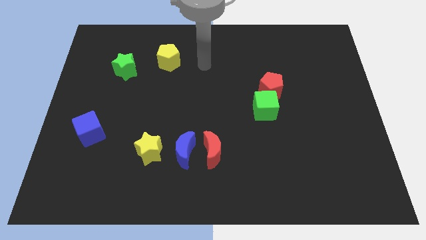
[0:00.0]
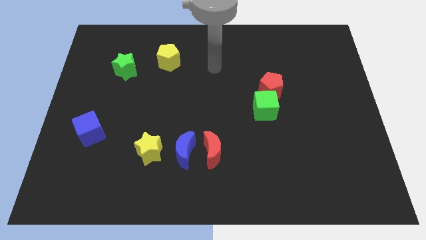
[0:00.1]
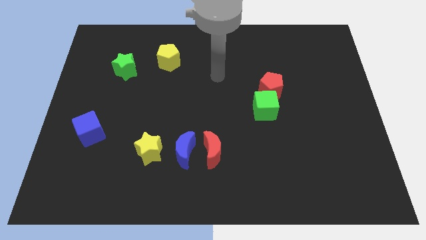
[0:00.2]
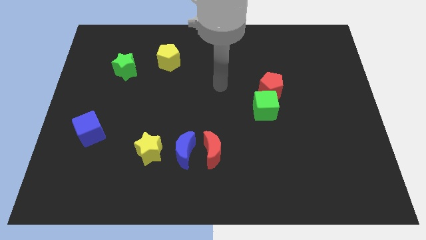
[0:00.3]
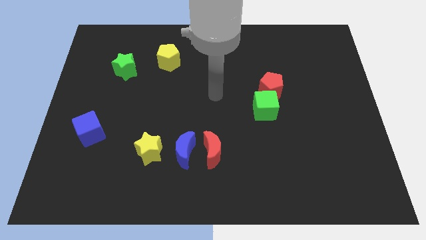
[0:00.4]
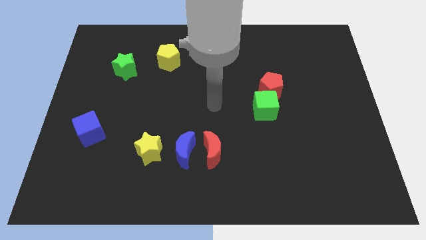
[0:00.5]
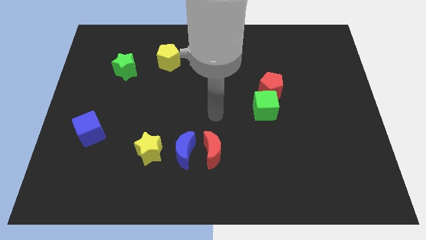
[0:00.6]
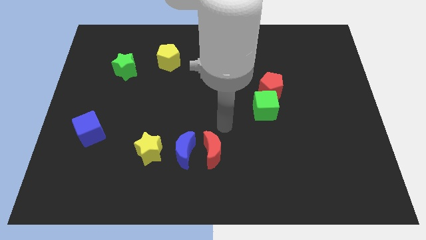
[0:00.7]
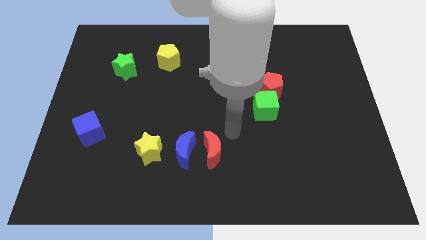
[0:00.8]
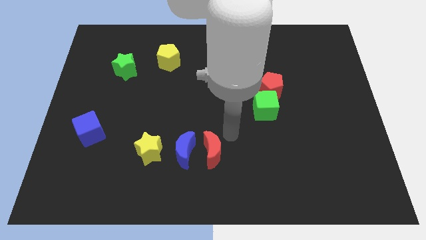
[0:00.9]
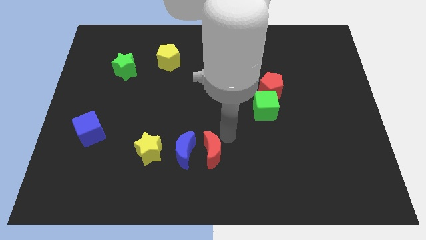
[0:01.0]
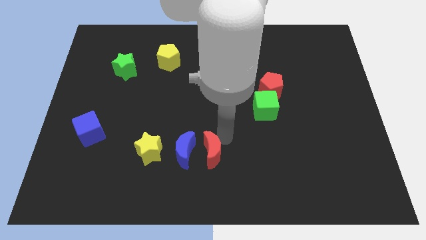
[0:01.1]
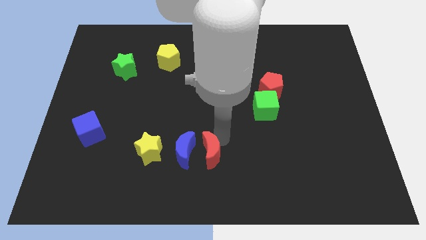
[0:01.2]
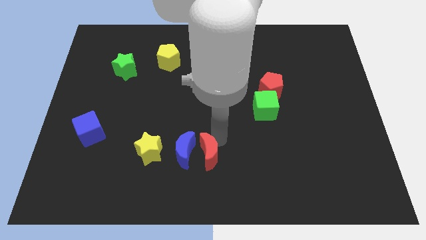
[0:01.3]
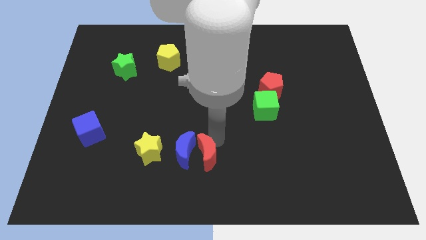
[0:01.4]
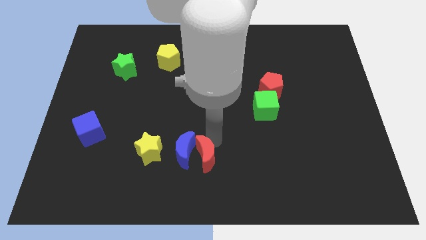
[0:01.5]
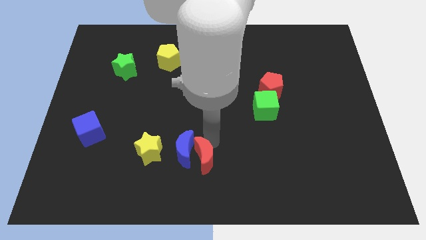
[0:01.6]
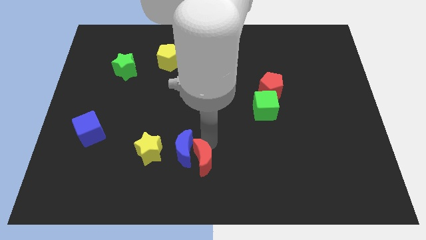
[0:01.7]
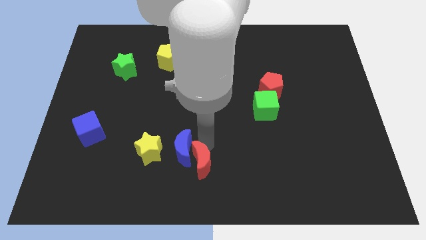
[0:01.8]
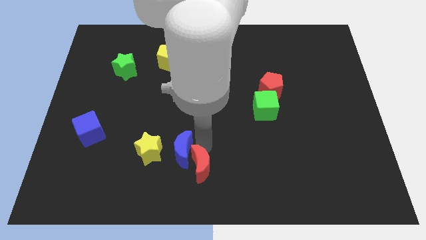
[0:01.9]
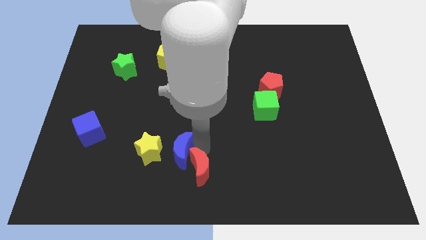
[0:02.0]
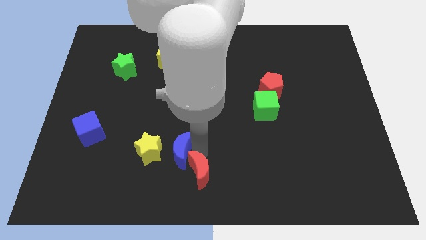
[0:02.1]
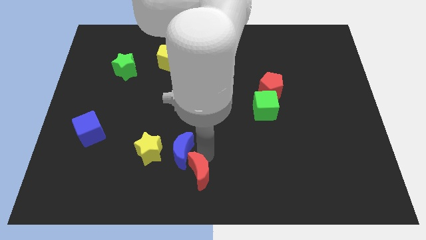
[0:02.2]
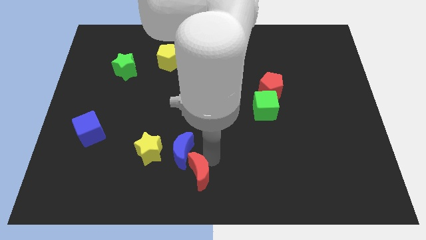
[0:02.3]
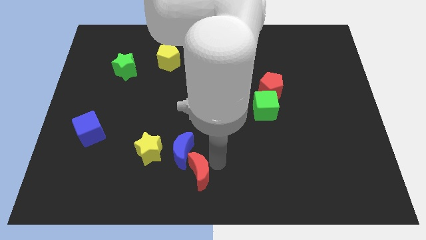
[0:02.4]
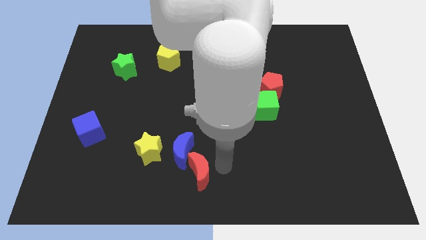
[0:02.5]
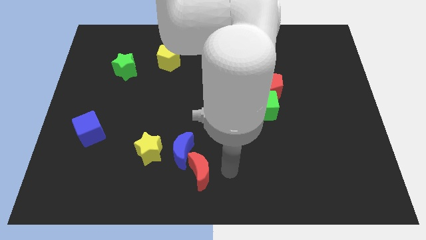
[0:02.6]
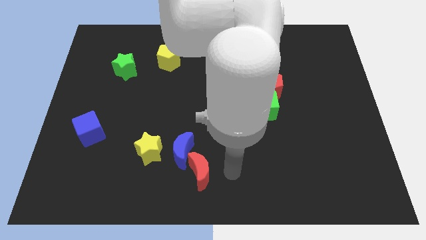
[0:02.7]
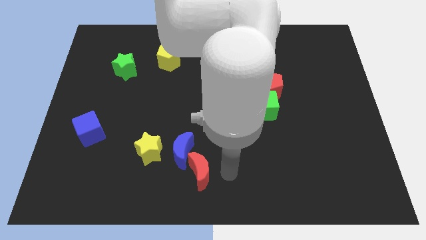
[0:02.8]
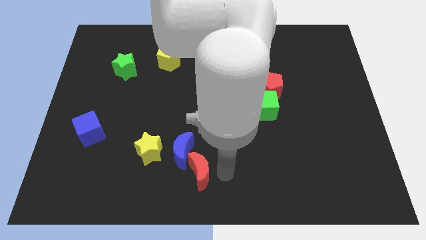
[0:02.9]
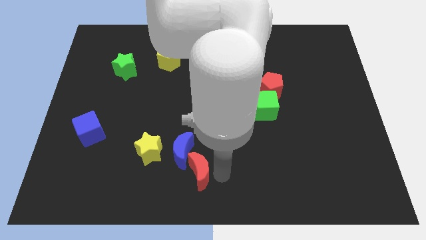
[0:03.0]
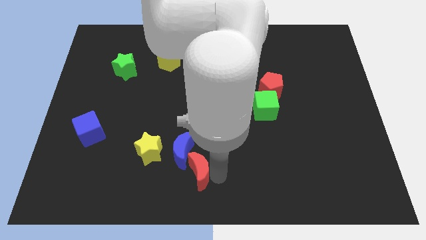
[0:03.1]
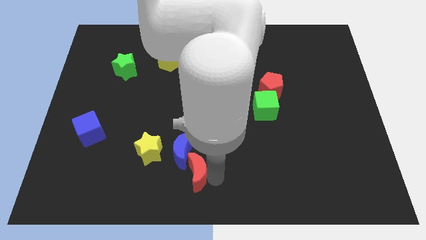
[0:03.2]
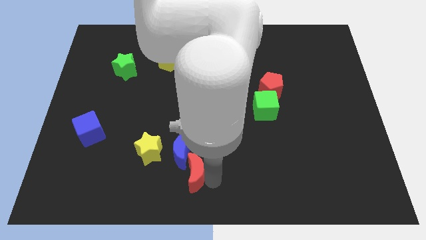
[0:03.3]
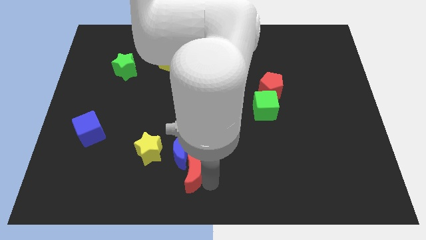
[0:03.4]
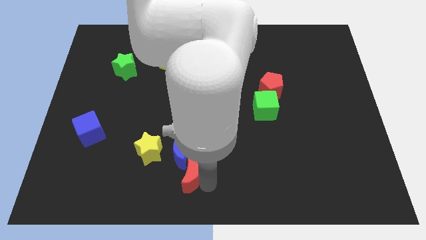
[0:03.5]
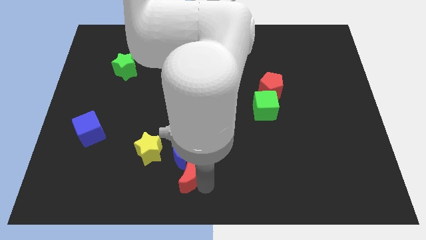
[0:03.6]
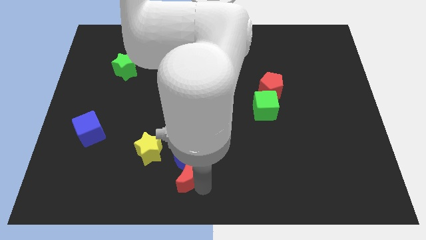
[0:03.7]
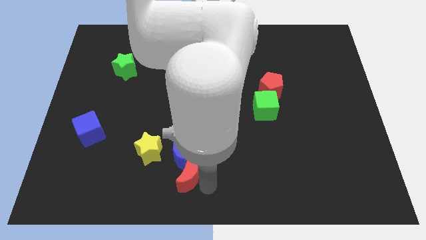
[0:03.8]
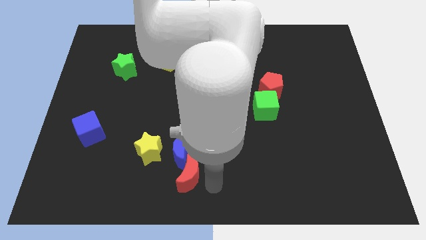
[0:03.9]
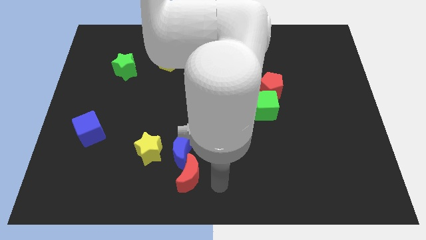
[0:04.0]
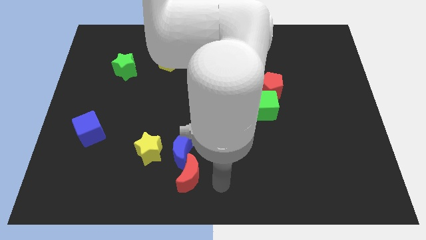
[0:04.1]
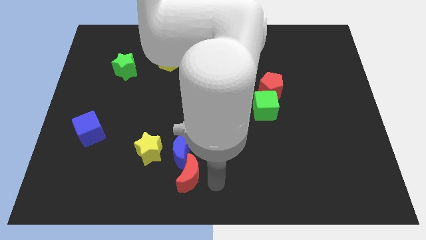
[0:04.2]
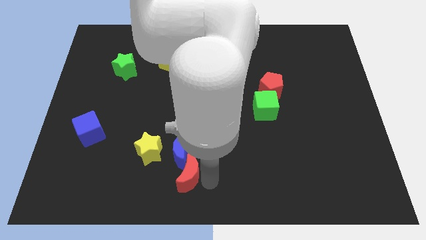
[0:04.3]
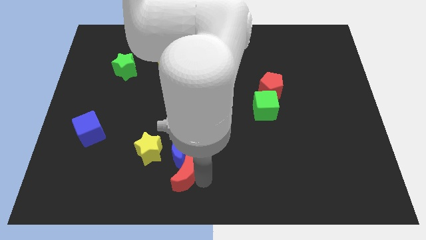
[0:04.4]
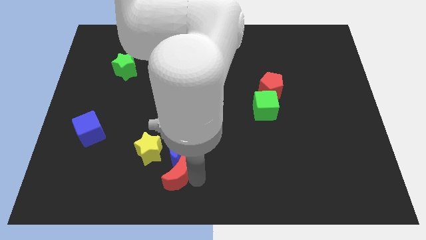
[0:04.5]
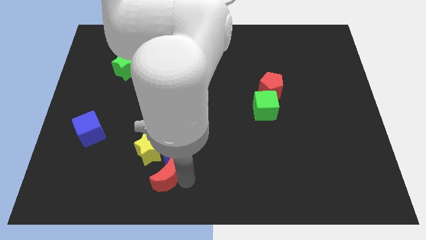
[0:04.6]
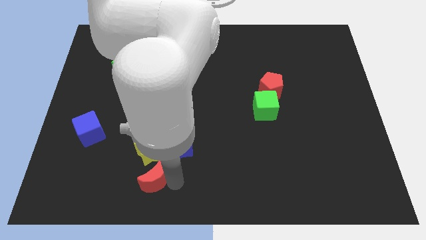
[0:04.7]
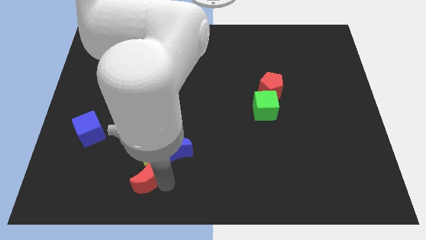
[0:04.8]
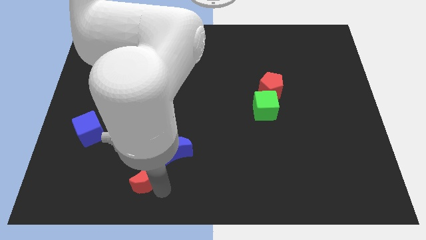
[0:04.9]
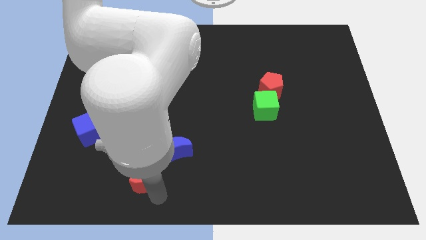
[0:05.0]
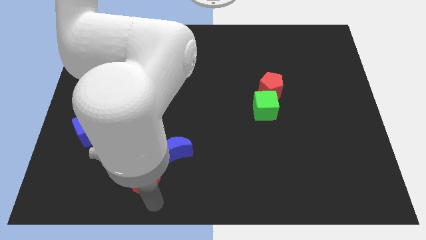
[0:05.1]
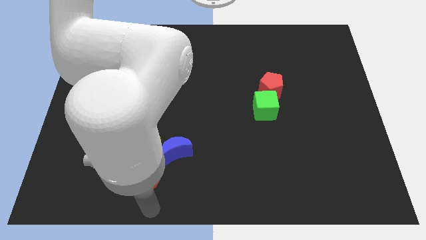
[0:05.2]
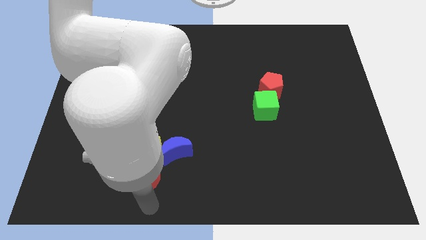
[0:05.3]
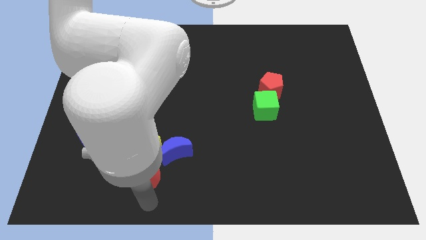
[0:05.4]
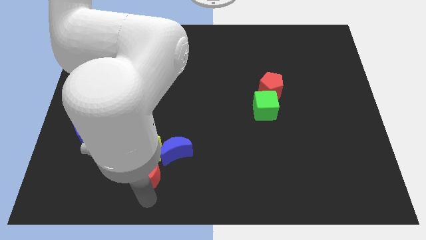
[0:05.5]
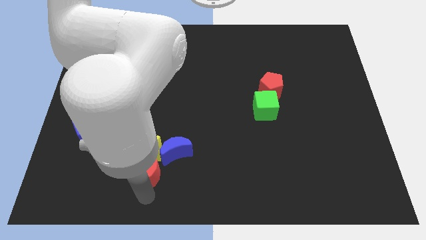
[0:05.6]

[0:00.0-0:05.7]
put the red moon close to the yellow star

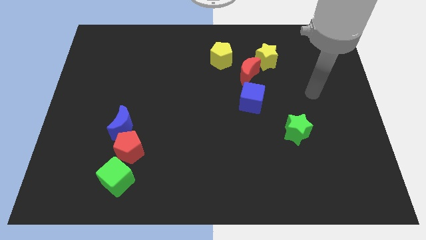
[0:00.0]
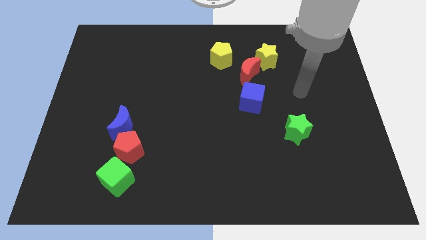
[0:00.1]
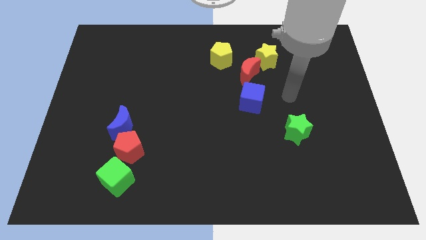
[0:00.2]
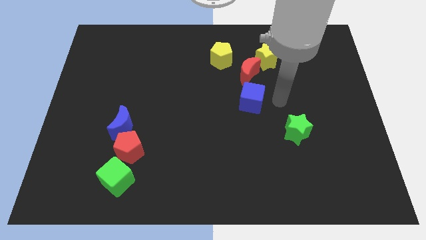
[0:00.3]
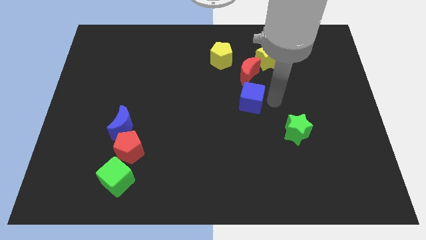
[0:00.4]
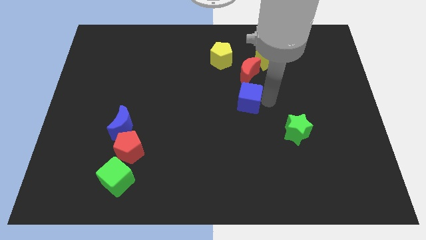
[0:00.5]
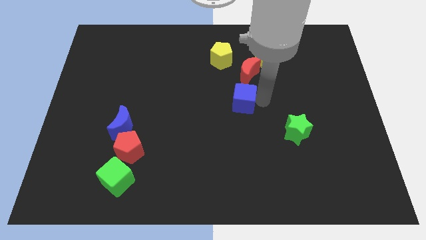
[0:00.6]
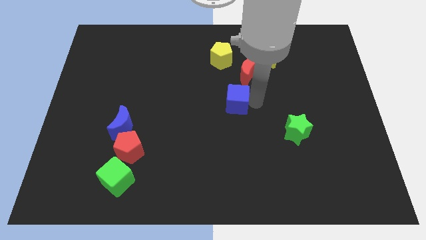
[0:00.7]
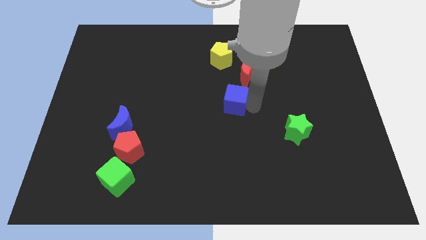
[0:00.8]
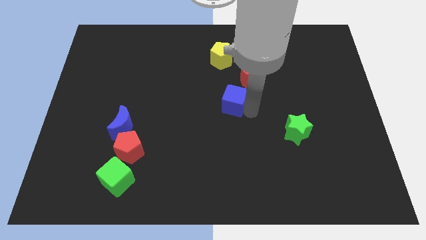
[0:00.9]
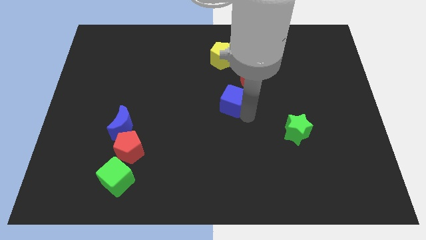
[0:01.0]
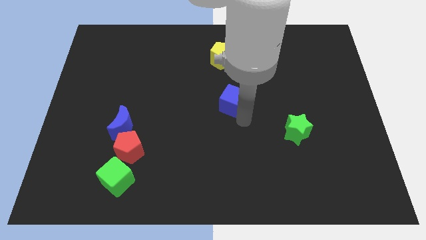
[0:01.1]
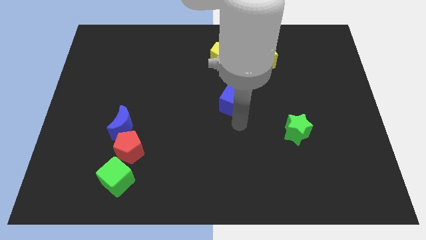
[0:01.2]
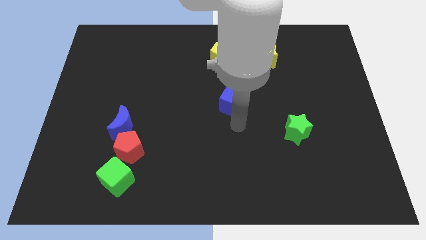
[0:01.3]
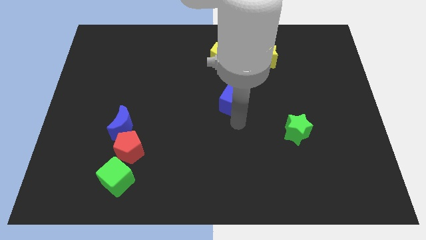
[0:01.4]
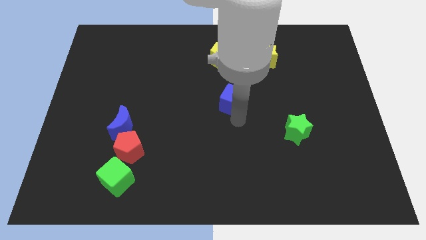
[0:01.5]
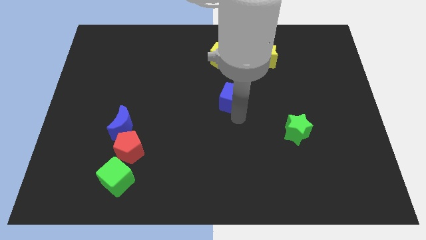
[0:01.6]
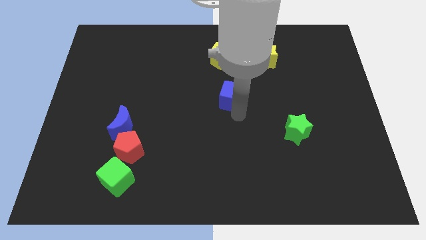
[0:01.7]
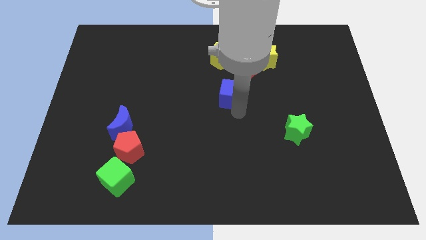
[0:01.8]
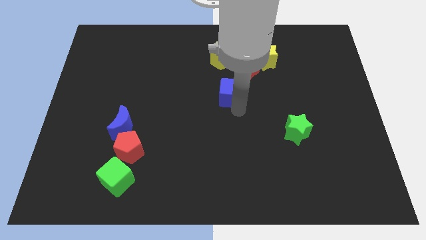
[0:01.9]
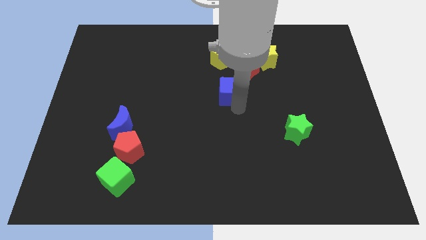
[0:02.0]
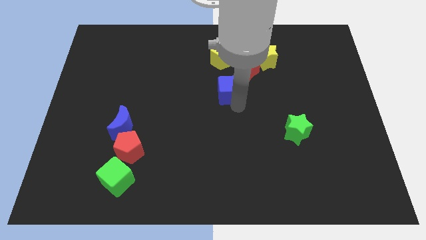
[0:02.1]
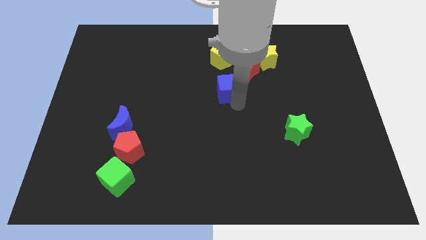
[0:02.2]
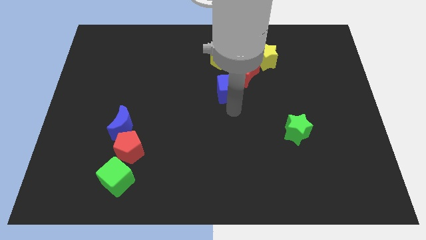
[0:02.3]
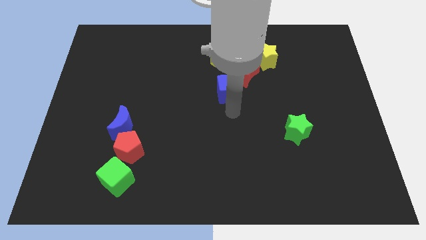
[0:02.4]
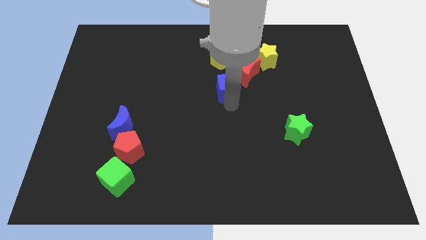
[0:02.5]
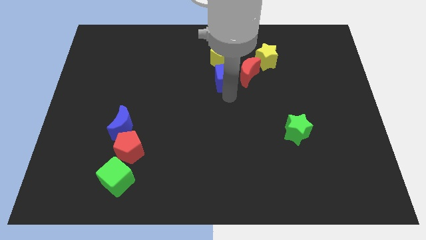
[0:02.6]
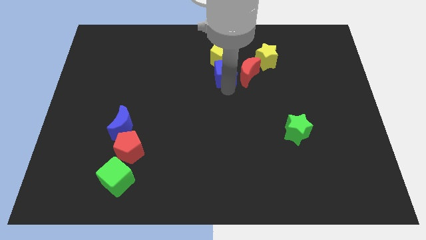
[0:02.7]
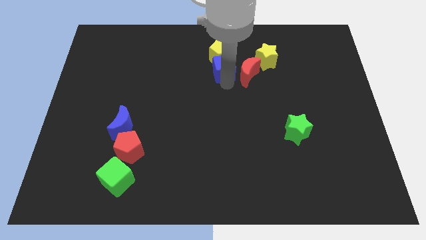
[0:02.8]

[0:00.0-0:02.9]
push the blue cube towards the yellow pentagon
